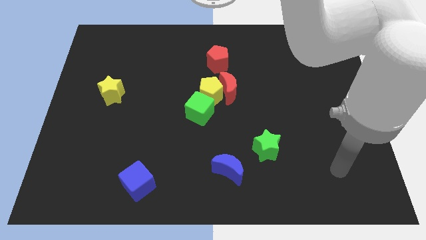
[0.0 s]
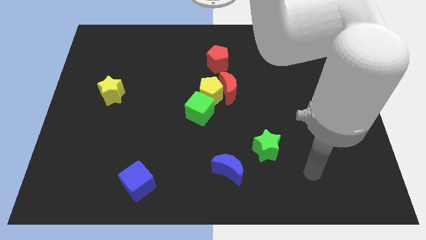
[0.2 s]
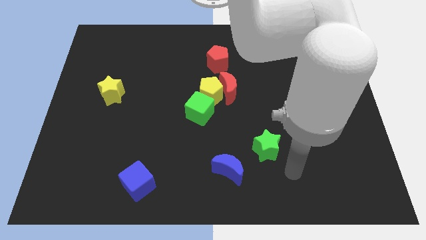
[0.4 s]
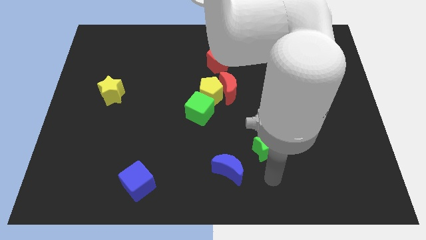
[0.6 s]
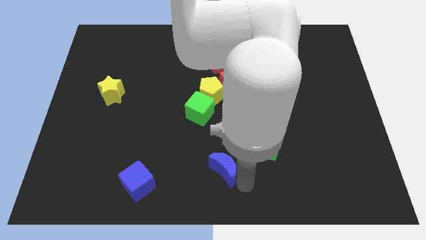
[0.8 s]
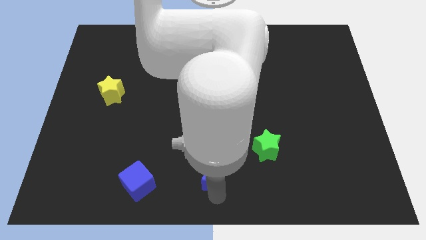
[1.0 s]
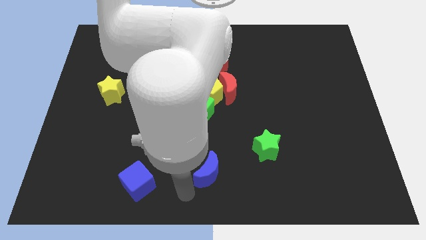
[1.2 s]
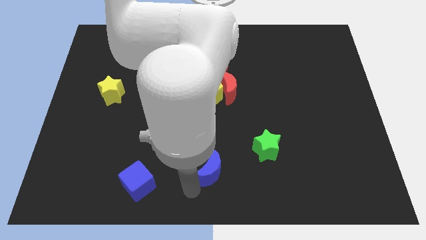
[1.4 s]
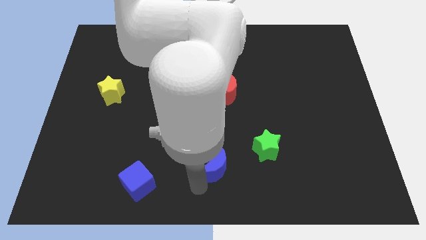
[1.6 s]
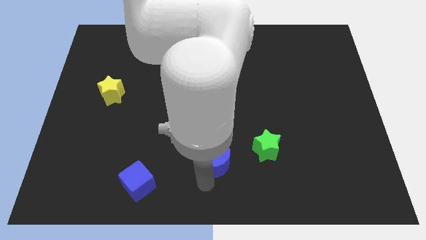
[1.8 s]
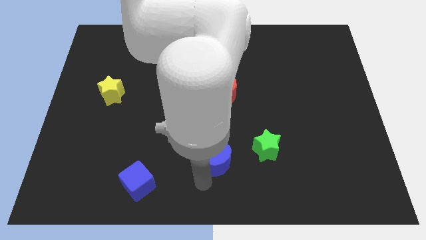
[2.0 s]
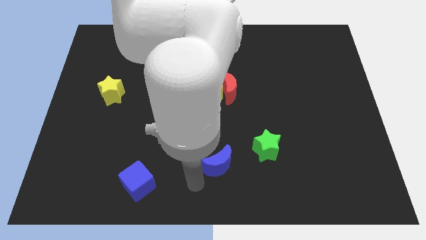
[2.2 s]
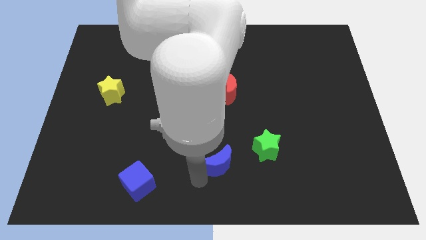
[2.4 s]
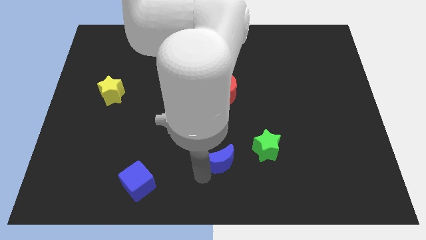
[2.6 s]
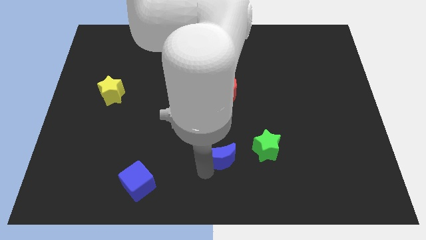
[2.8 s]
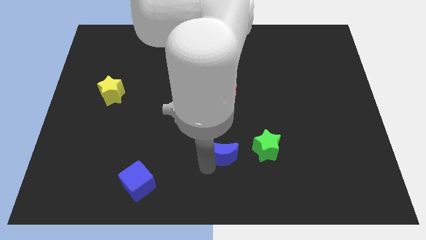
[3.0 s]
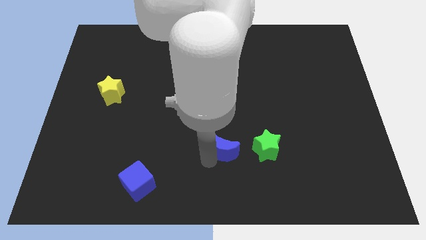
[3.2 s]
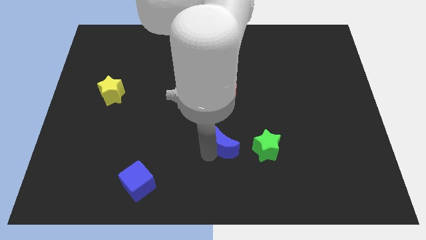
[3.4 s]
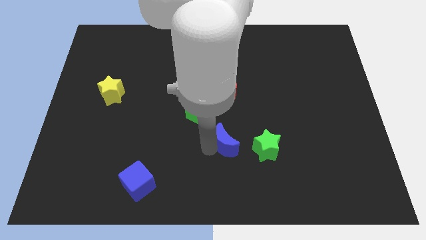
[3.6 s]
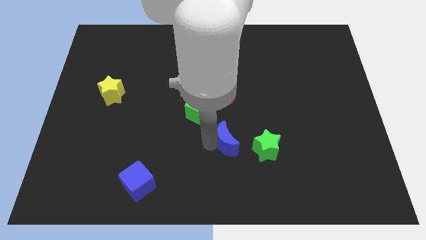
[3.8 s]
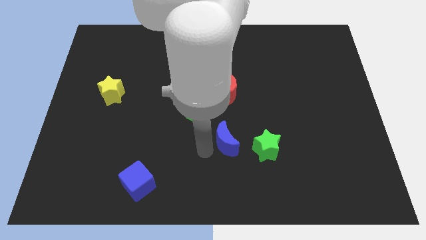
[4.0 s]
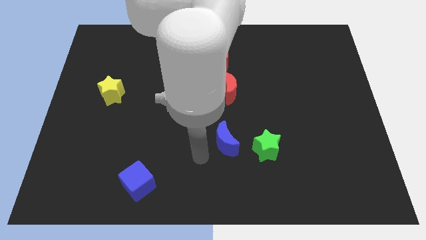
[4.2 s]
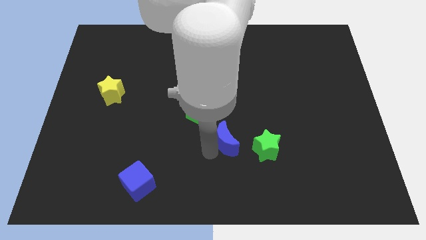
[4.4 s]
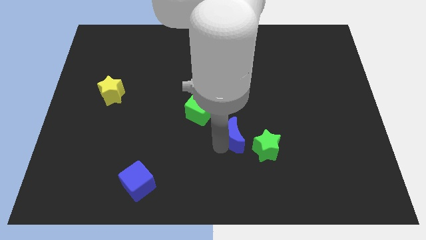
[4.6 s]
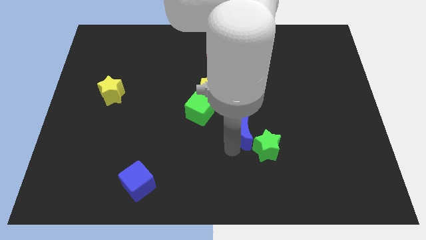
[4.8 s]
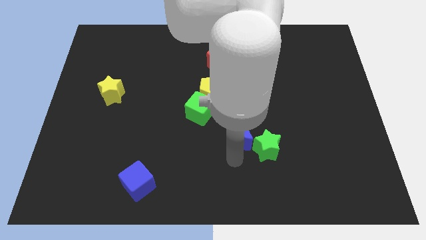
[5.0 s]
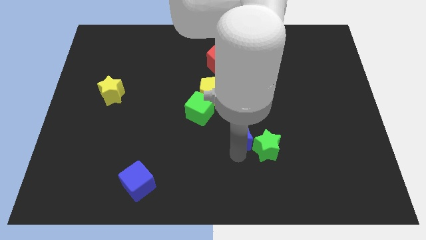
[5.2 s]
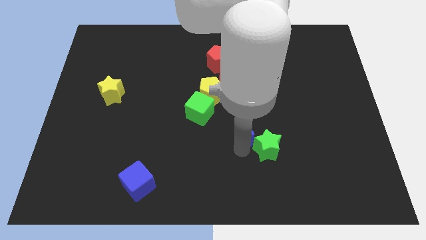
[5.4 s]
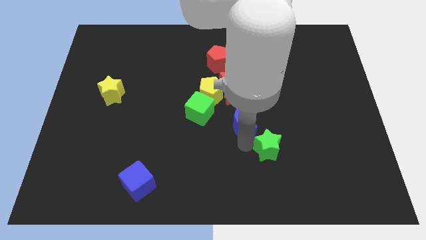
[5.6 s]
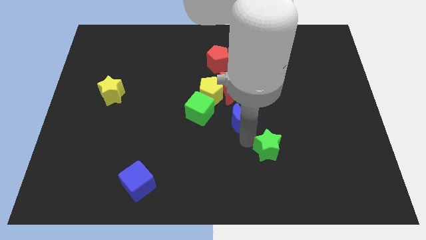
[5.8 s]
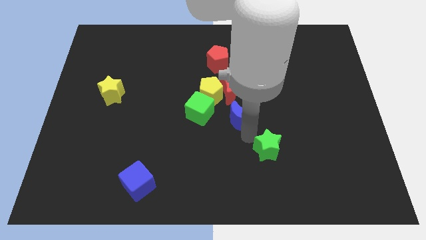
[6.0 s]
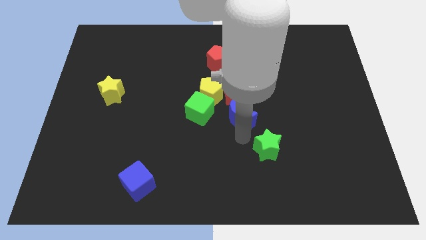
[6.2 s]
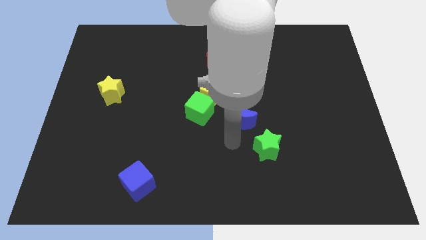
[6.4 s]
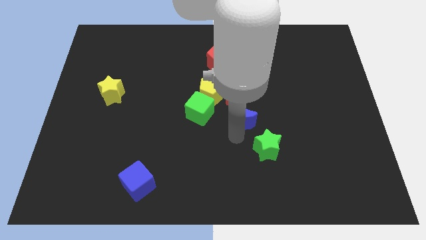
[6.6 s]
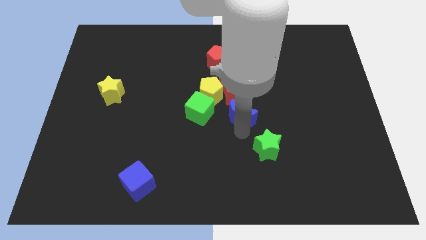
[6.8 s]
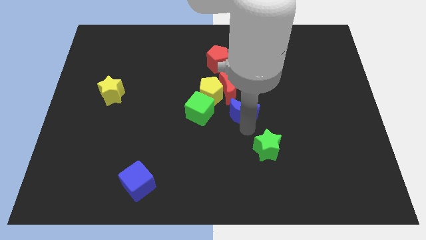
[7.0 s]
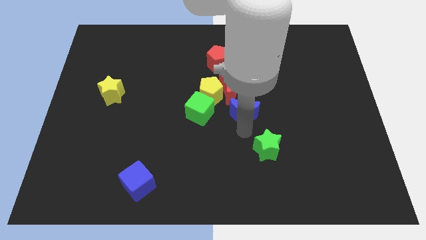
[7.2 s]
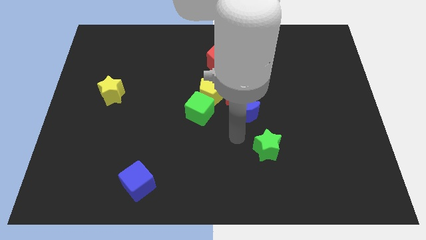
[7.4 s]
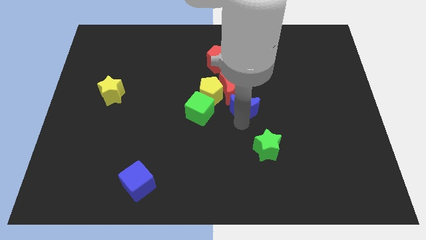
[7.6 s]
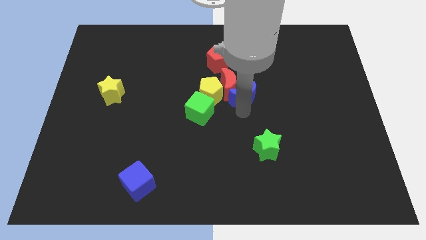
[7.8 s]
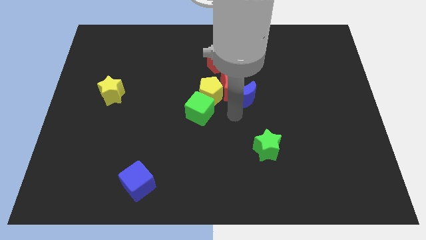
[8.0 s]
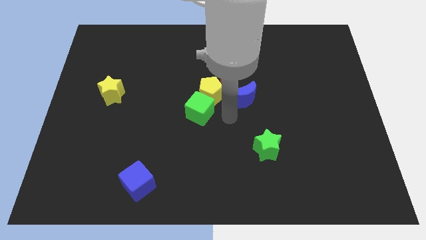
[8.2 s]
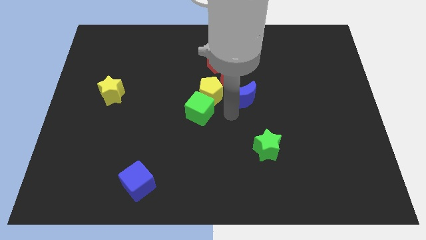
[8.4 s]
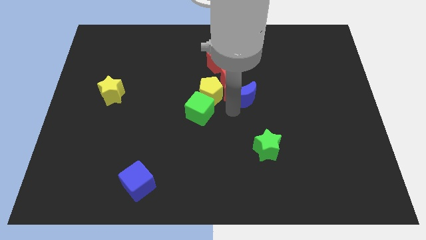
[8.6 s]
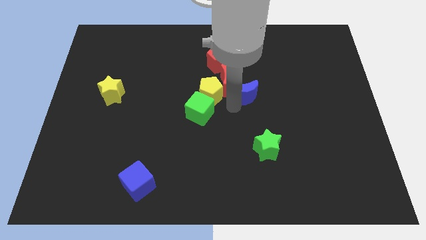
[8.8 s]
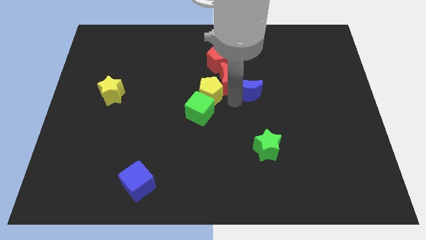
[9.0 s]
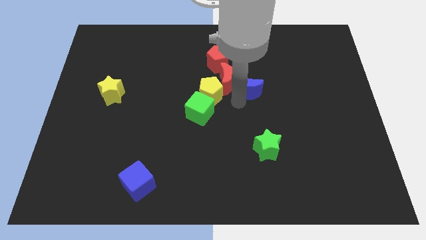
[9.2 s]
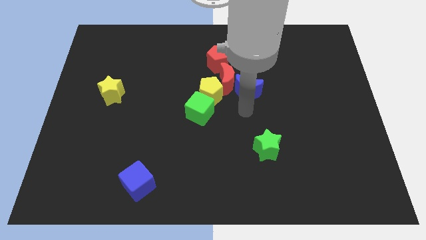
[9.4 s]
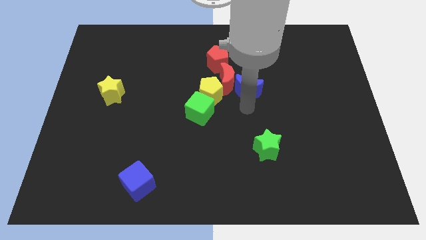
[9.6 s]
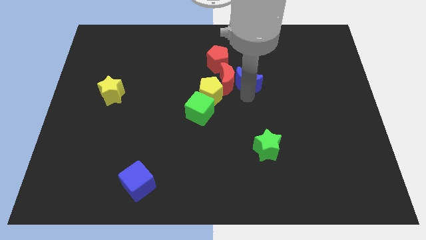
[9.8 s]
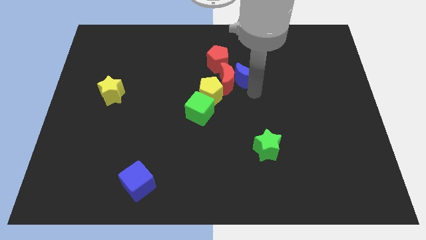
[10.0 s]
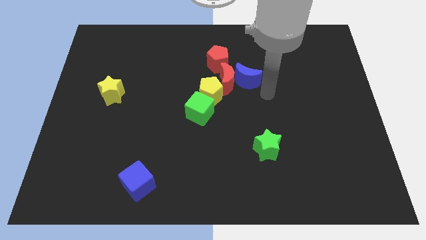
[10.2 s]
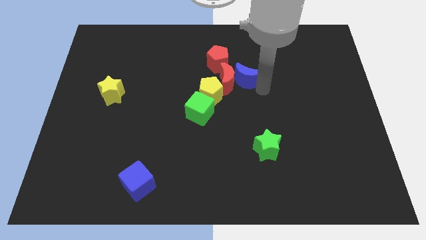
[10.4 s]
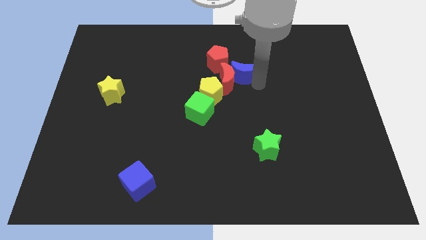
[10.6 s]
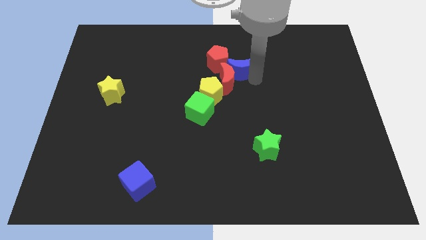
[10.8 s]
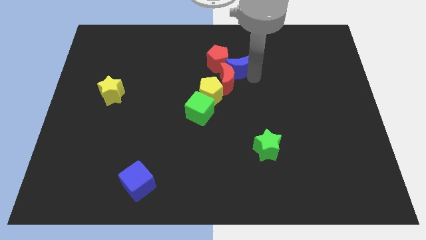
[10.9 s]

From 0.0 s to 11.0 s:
put the blue moon towards the red pentagon

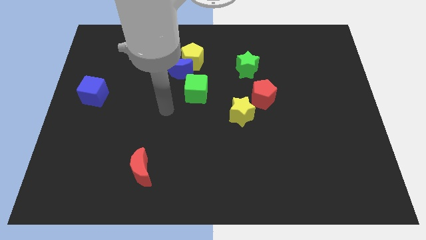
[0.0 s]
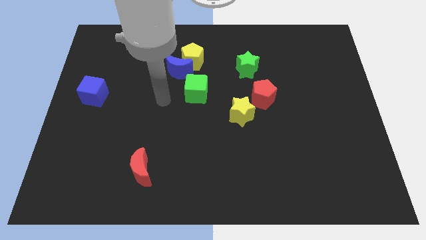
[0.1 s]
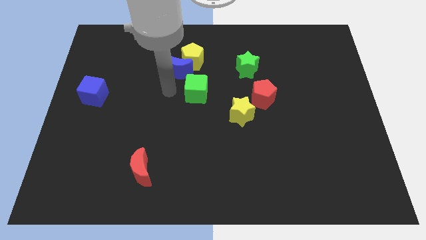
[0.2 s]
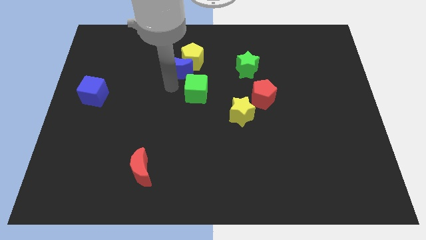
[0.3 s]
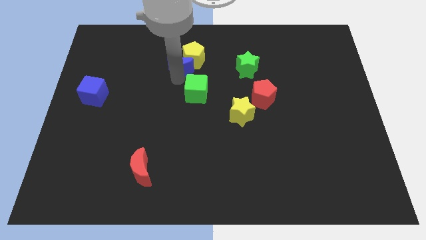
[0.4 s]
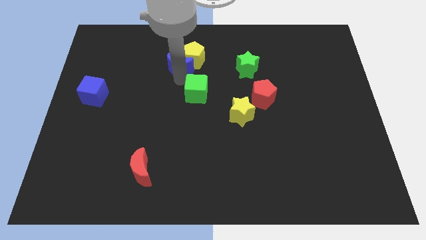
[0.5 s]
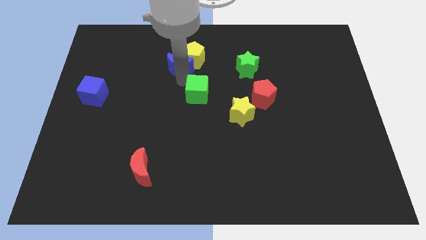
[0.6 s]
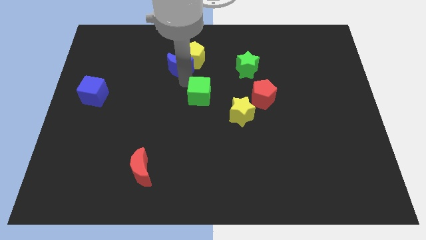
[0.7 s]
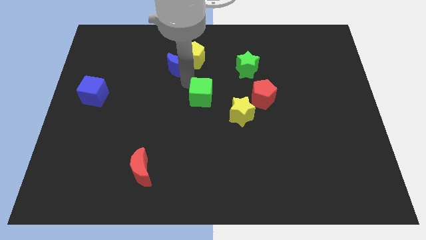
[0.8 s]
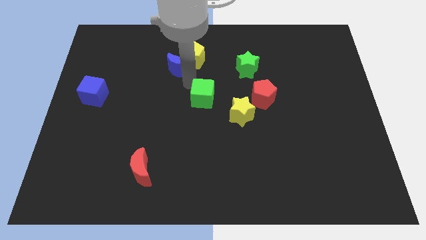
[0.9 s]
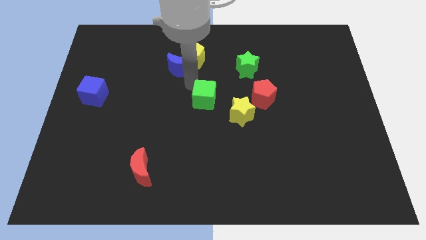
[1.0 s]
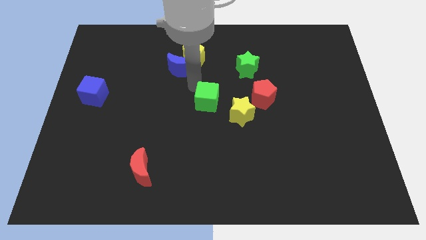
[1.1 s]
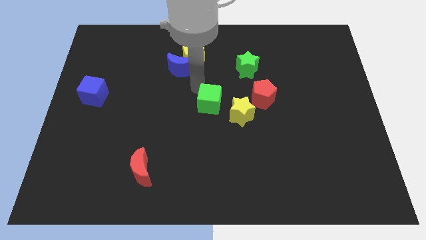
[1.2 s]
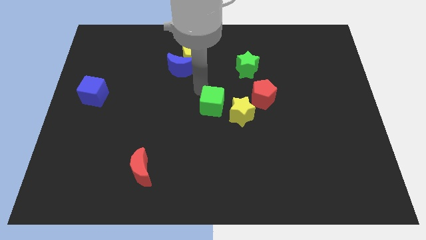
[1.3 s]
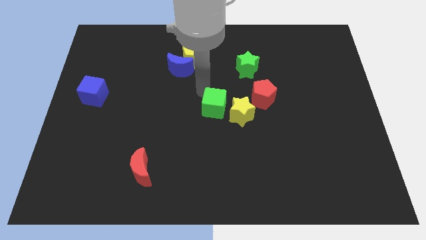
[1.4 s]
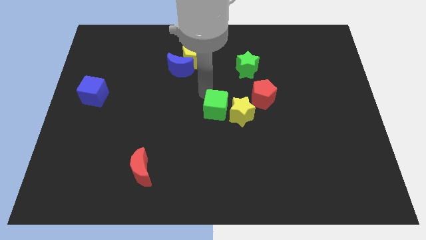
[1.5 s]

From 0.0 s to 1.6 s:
slide the green cube to the yellow star
